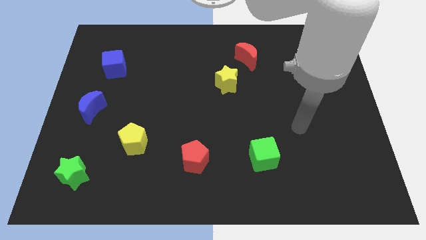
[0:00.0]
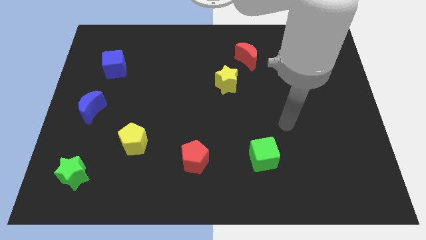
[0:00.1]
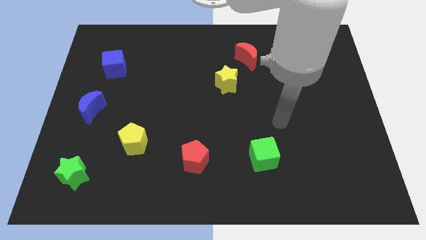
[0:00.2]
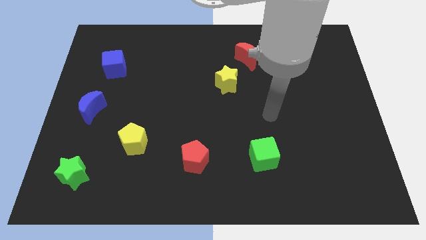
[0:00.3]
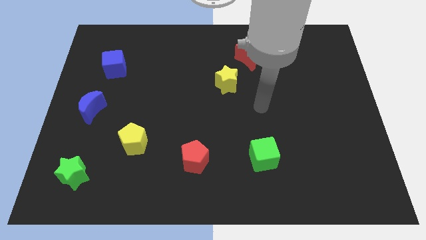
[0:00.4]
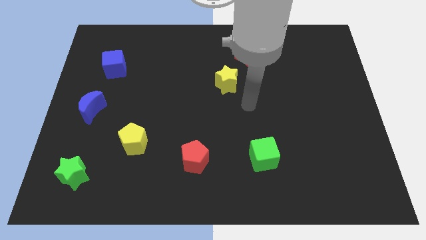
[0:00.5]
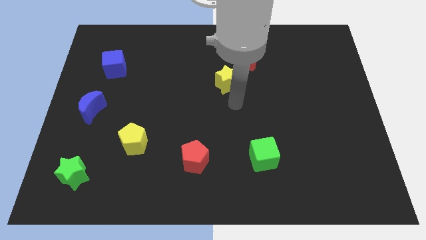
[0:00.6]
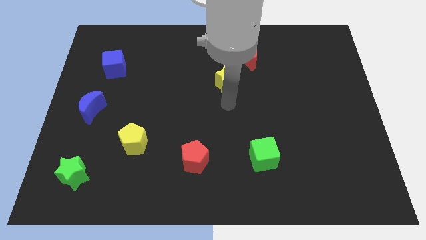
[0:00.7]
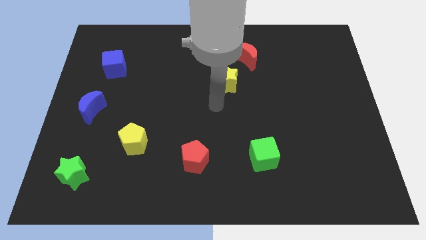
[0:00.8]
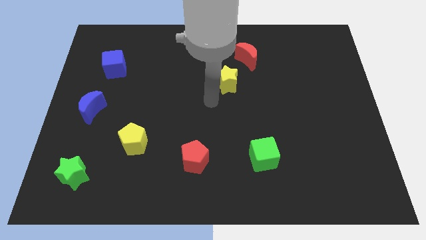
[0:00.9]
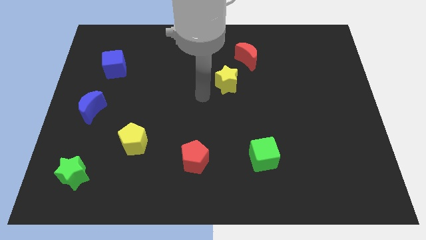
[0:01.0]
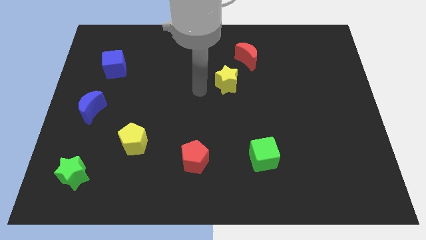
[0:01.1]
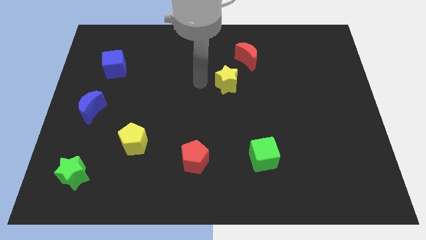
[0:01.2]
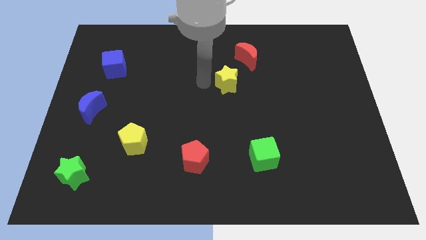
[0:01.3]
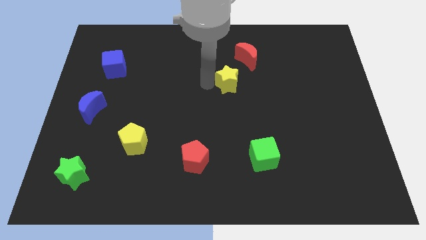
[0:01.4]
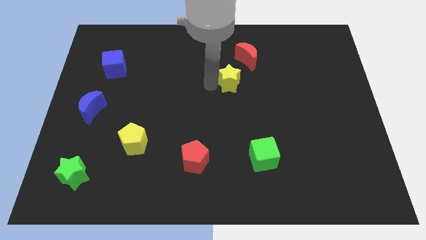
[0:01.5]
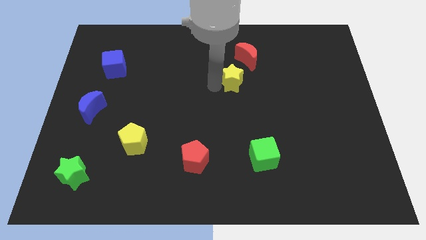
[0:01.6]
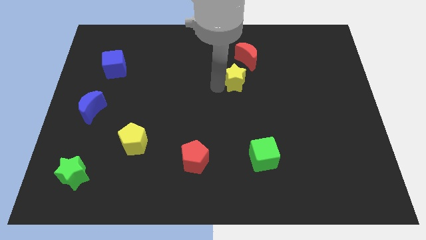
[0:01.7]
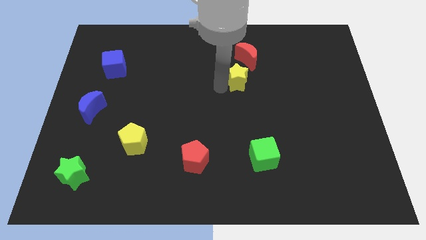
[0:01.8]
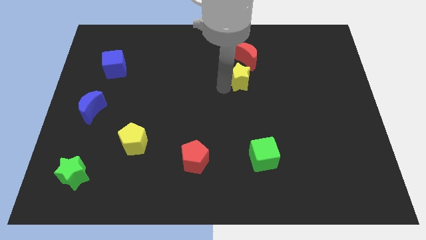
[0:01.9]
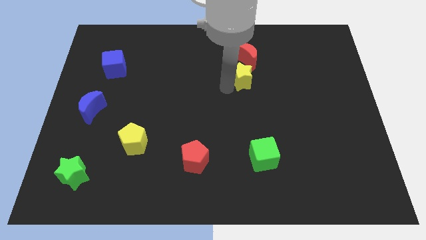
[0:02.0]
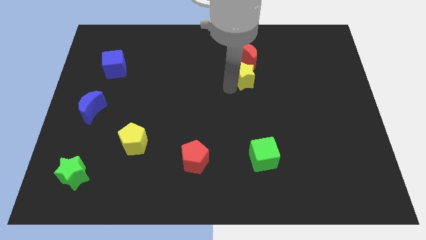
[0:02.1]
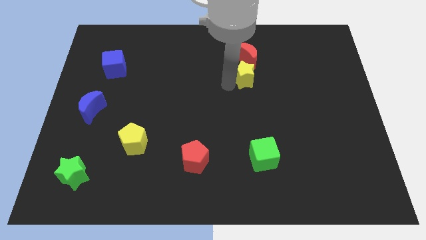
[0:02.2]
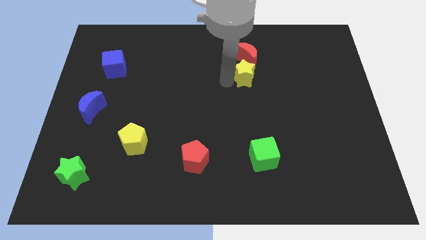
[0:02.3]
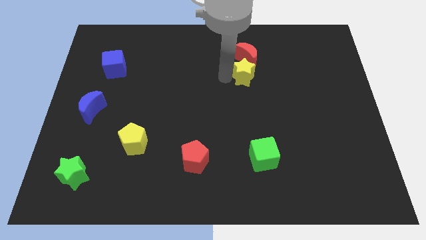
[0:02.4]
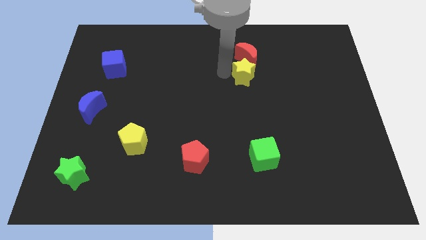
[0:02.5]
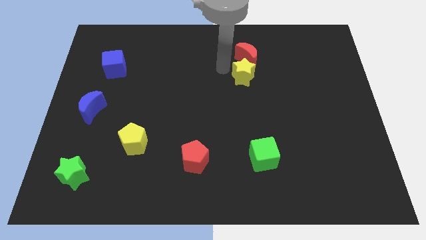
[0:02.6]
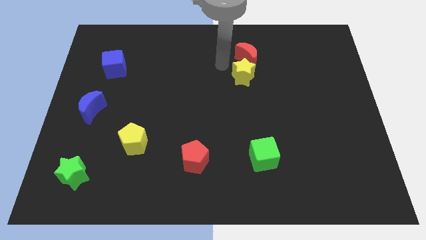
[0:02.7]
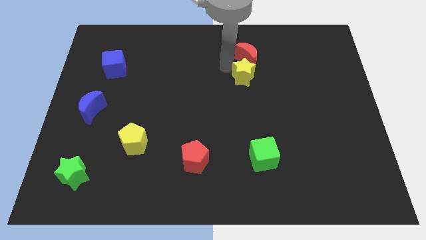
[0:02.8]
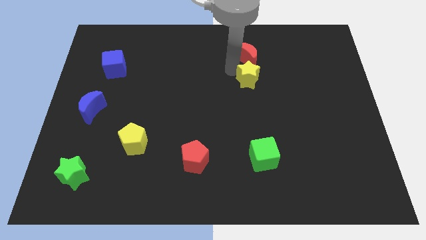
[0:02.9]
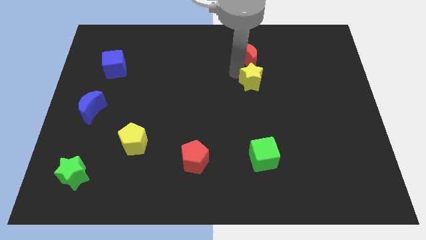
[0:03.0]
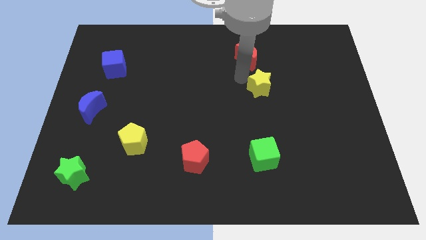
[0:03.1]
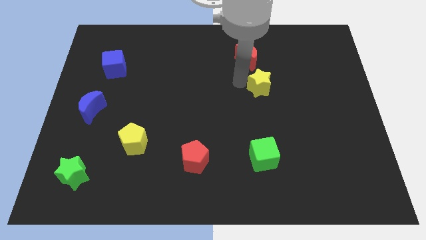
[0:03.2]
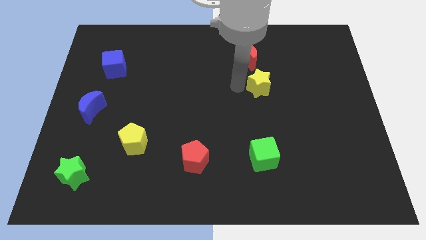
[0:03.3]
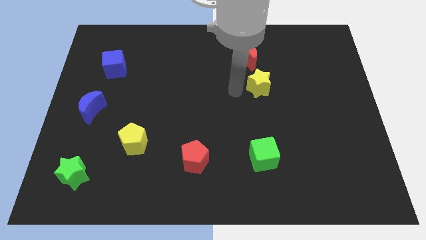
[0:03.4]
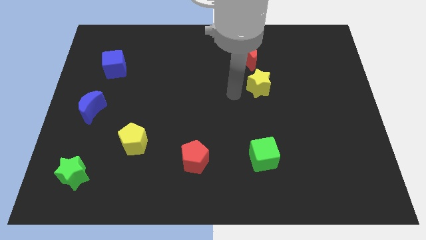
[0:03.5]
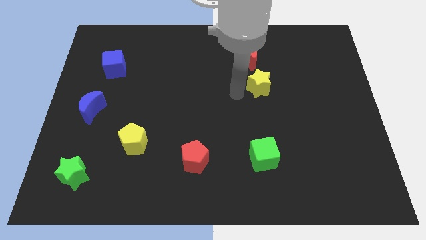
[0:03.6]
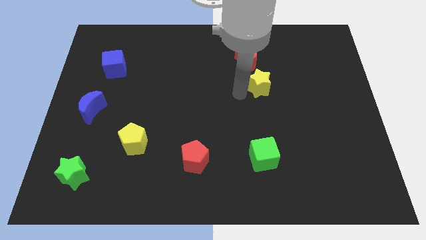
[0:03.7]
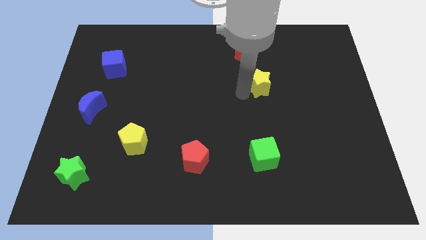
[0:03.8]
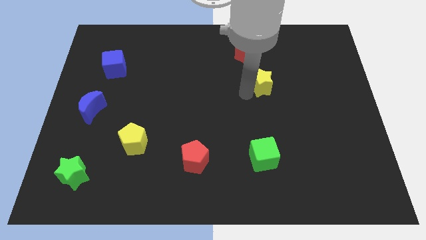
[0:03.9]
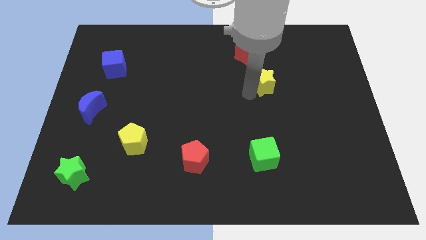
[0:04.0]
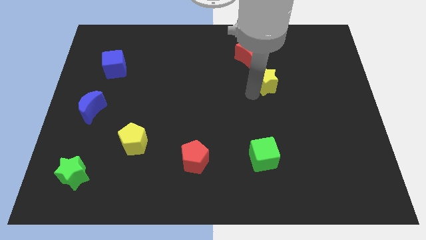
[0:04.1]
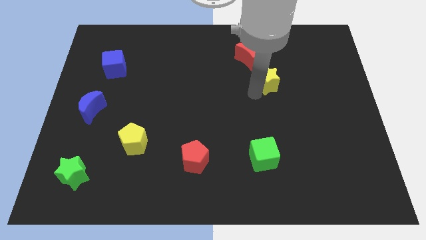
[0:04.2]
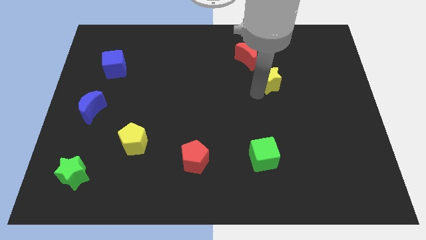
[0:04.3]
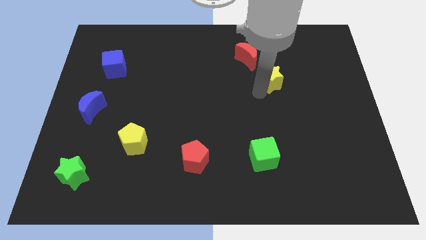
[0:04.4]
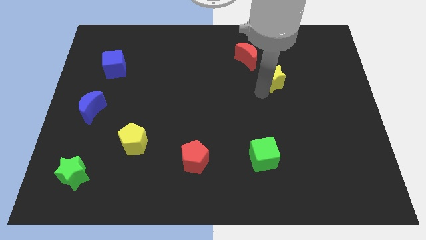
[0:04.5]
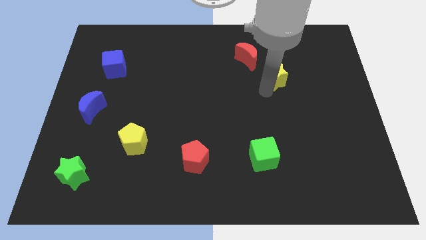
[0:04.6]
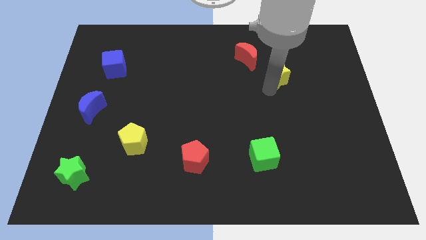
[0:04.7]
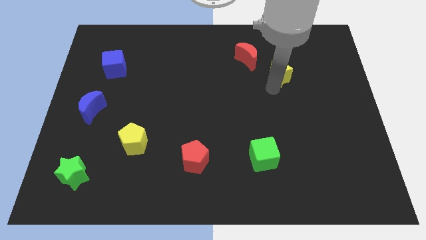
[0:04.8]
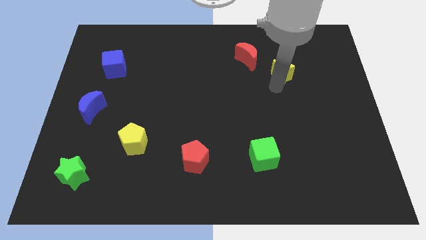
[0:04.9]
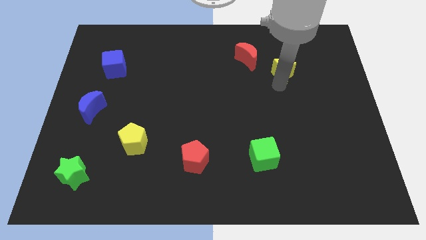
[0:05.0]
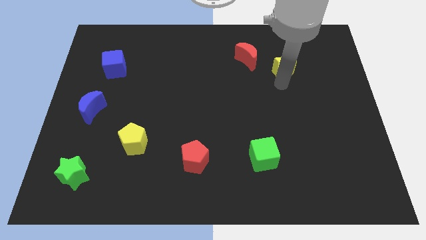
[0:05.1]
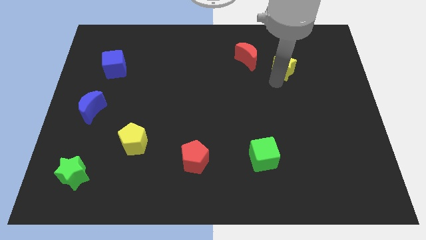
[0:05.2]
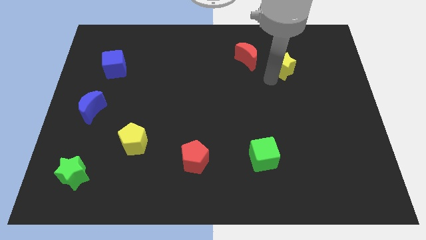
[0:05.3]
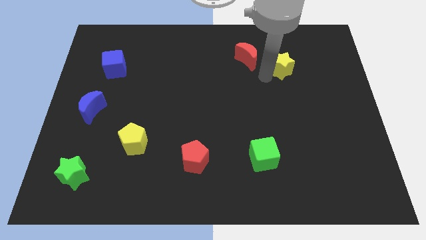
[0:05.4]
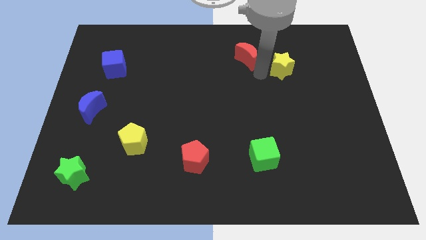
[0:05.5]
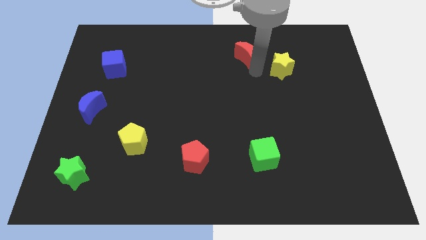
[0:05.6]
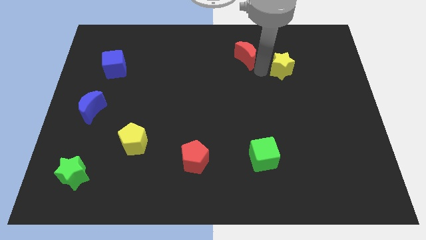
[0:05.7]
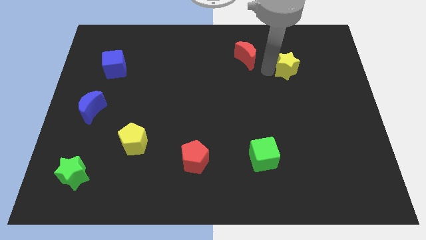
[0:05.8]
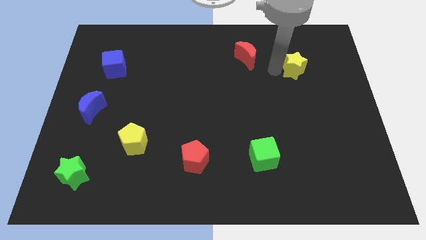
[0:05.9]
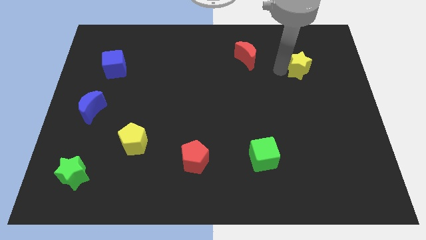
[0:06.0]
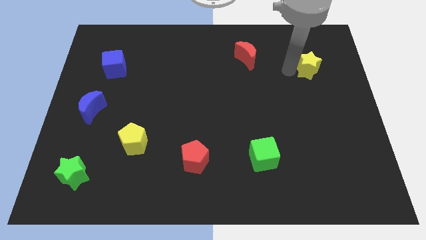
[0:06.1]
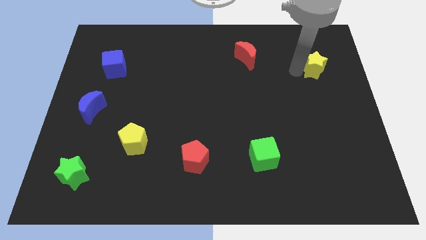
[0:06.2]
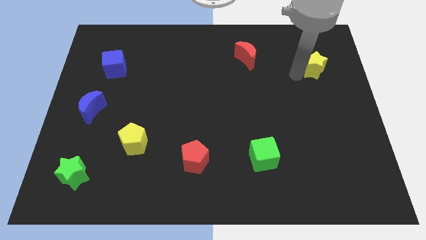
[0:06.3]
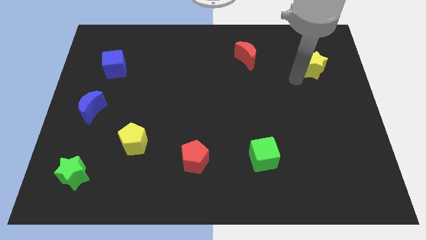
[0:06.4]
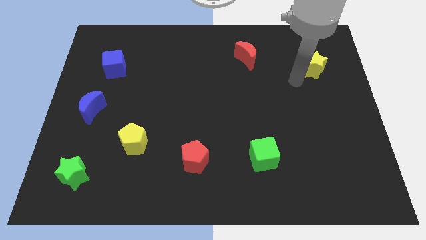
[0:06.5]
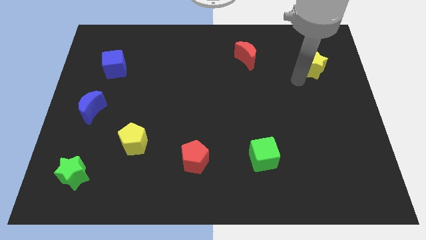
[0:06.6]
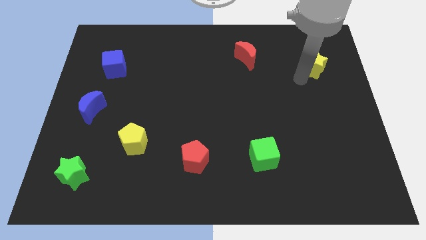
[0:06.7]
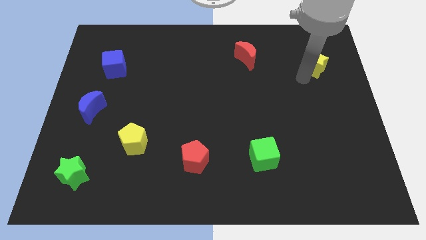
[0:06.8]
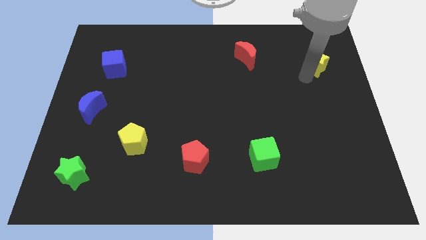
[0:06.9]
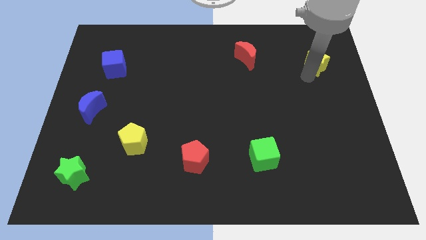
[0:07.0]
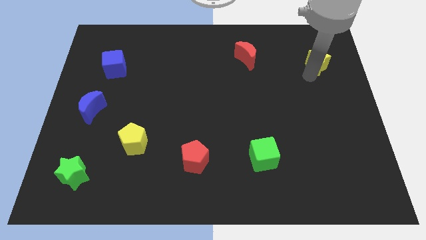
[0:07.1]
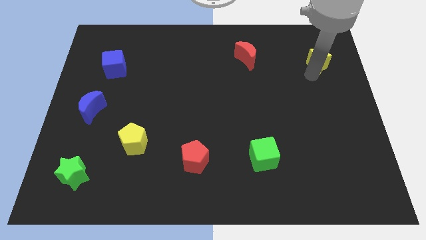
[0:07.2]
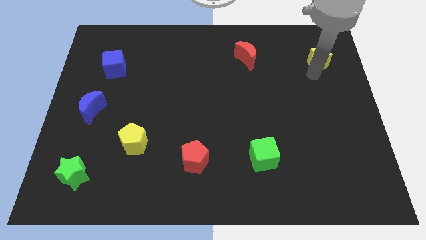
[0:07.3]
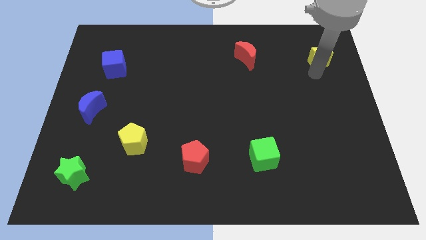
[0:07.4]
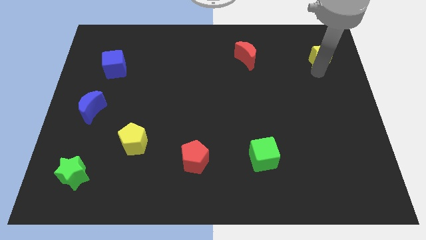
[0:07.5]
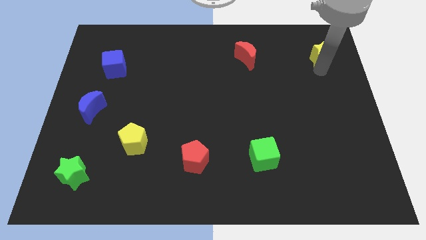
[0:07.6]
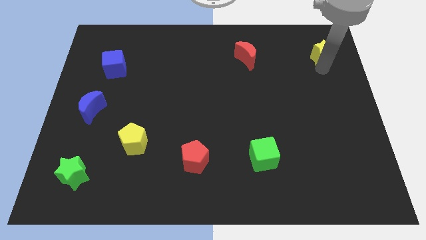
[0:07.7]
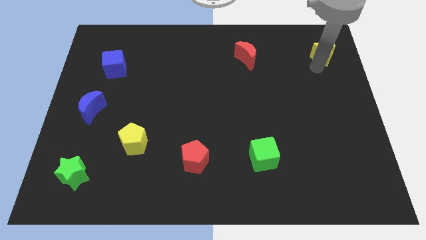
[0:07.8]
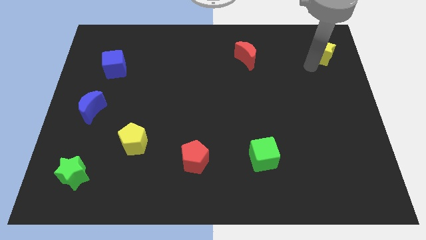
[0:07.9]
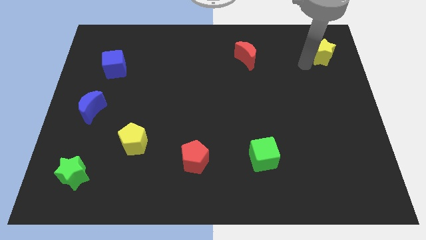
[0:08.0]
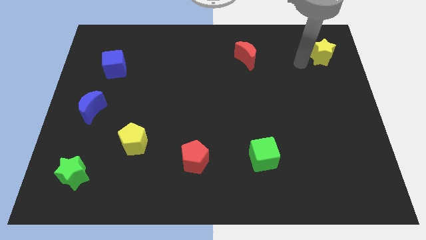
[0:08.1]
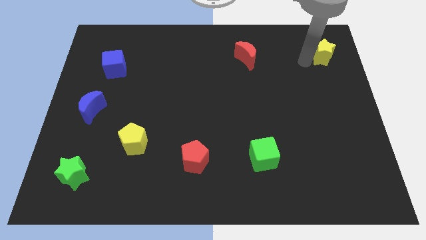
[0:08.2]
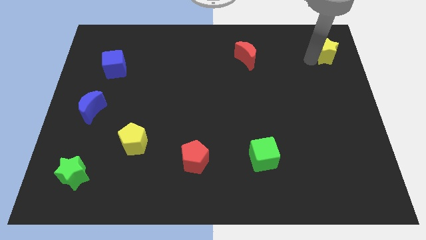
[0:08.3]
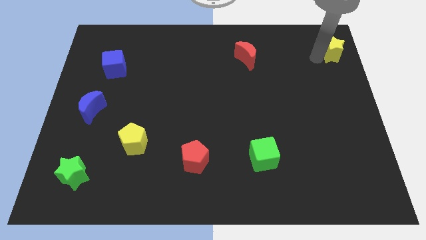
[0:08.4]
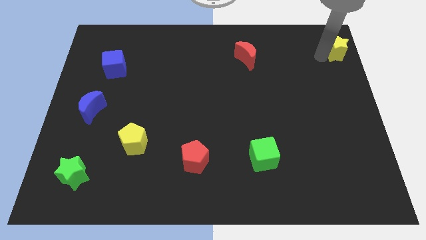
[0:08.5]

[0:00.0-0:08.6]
move the yellow star to the top right corner
